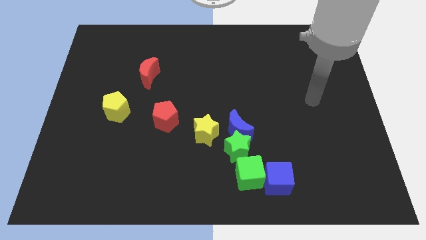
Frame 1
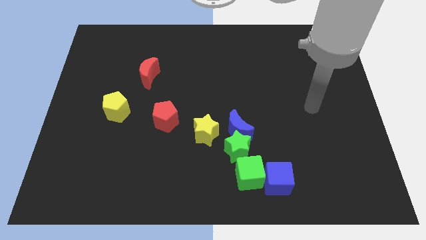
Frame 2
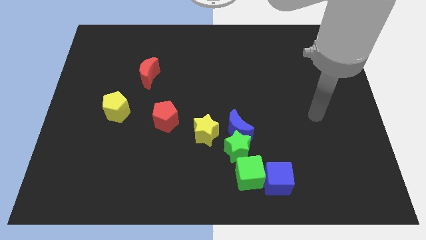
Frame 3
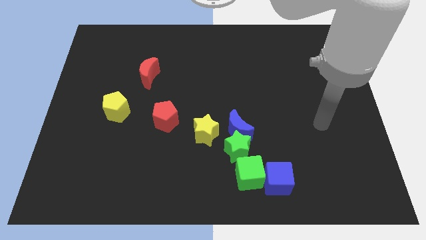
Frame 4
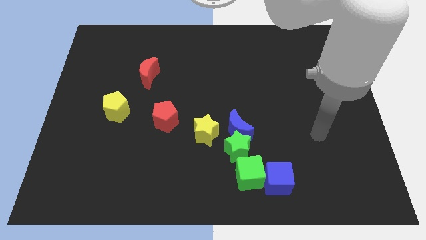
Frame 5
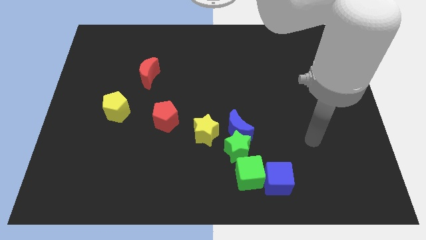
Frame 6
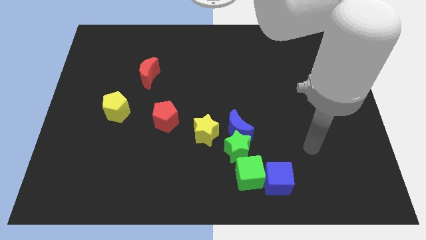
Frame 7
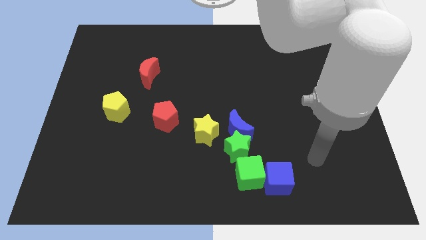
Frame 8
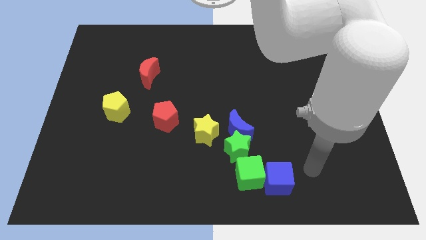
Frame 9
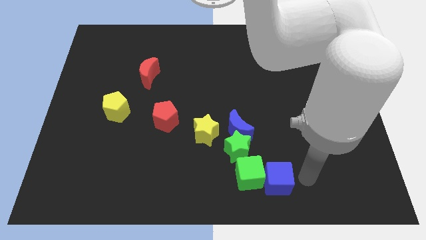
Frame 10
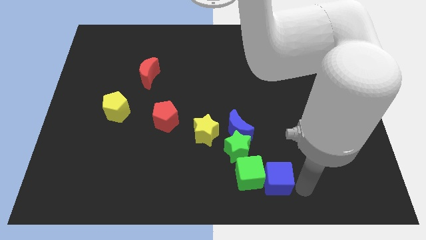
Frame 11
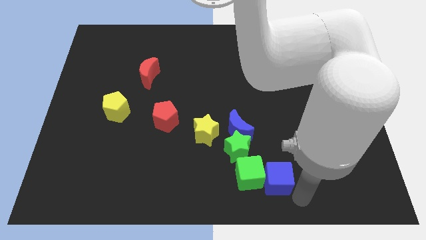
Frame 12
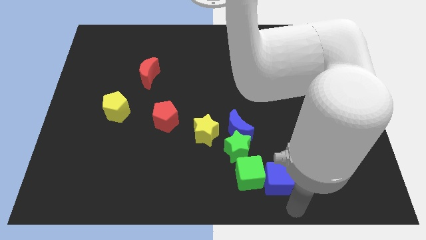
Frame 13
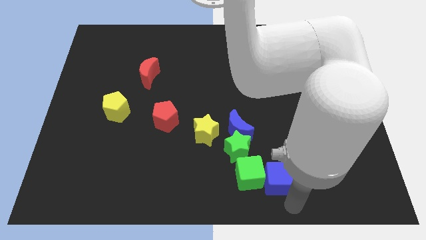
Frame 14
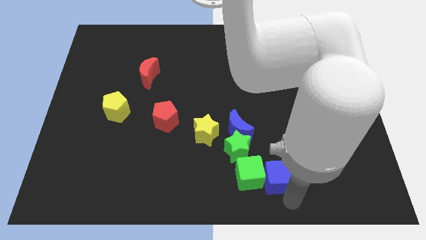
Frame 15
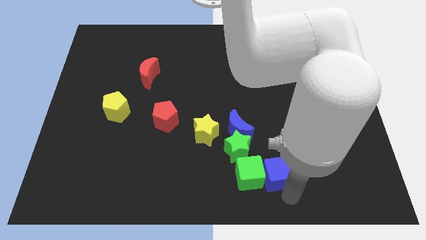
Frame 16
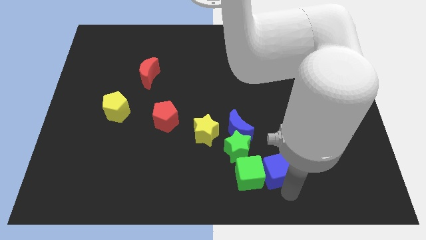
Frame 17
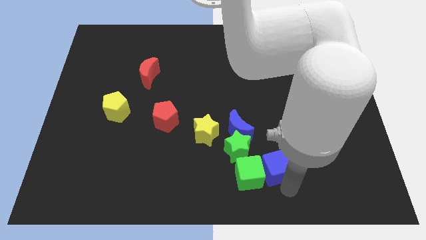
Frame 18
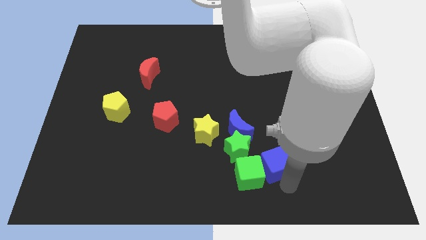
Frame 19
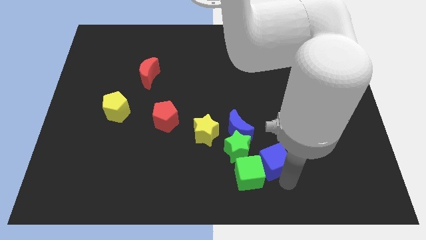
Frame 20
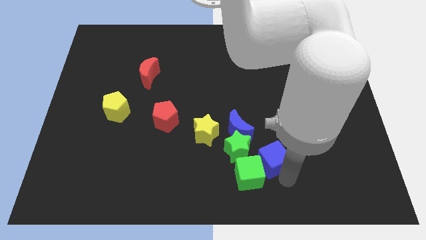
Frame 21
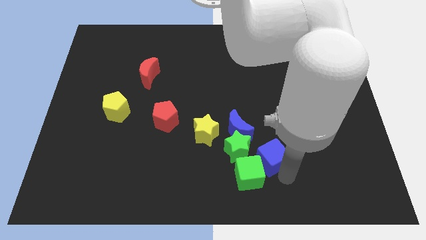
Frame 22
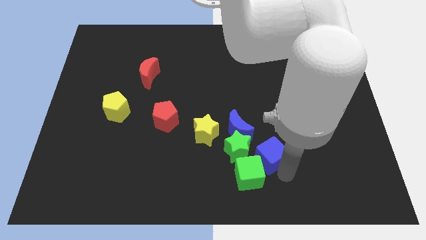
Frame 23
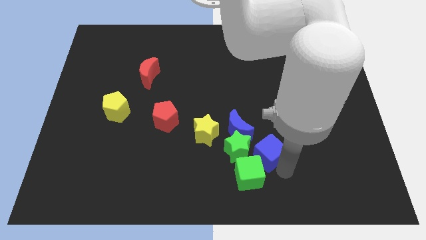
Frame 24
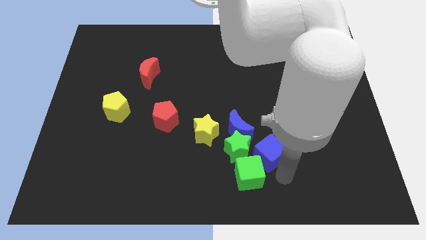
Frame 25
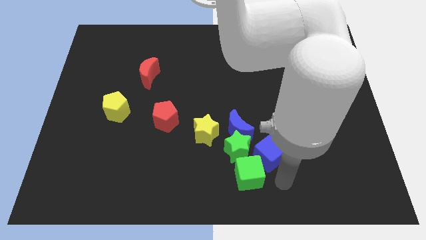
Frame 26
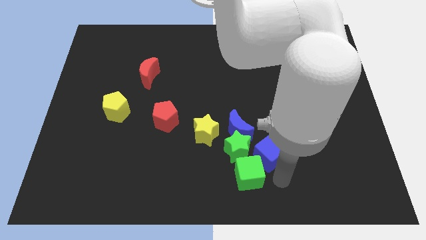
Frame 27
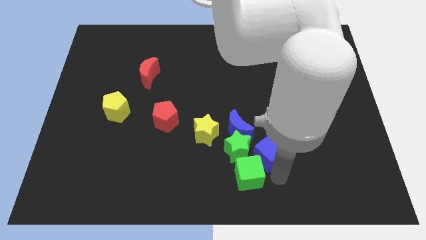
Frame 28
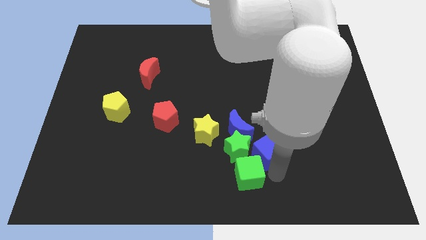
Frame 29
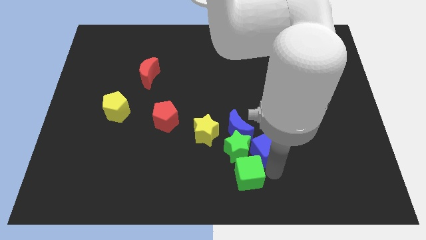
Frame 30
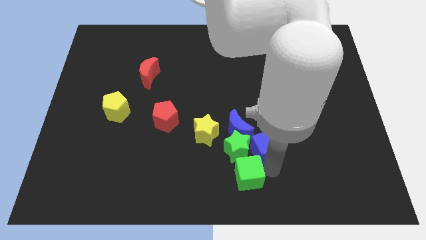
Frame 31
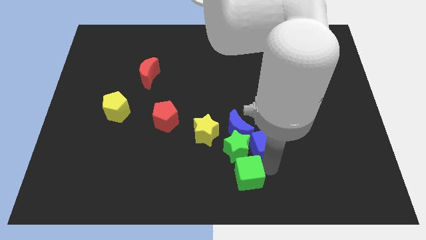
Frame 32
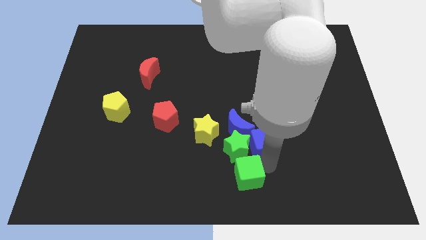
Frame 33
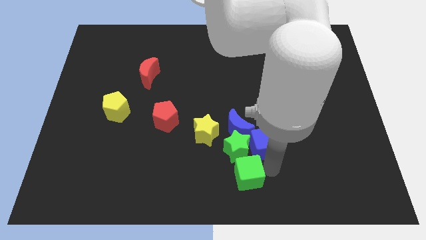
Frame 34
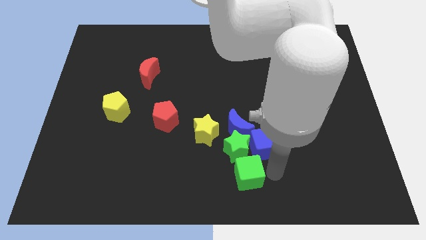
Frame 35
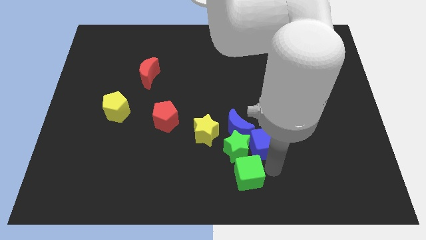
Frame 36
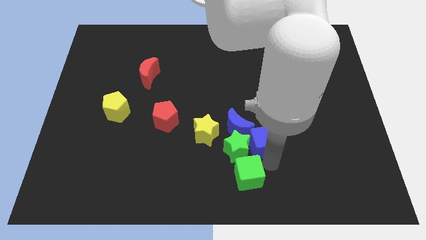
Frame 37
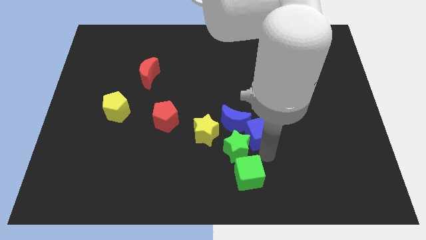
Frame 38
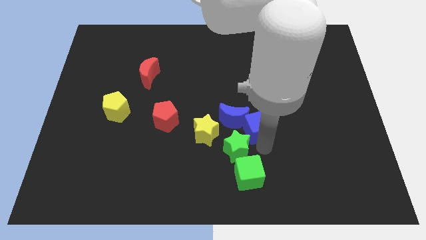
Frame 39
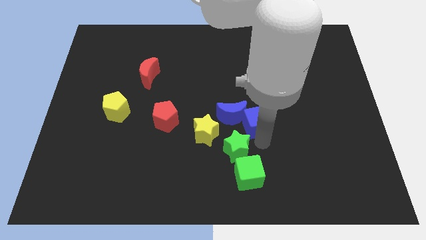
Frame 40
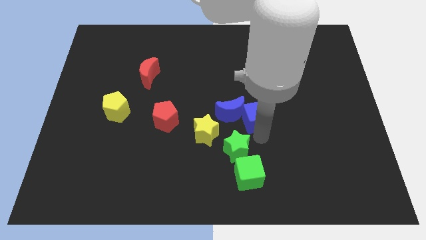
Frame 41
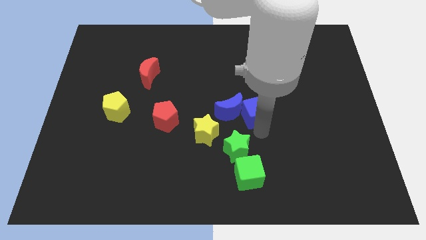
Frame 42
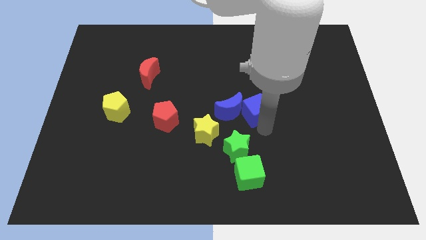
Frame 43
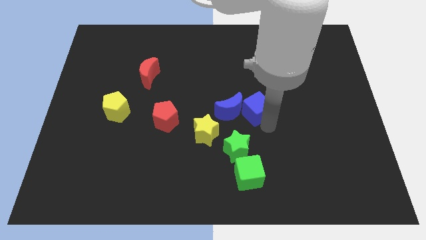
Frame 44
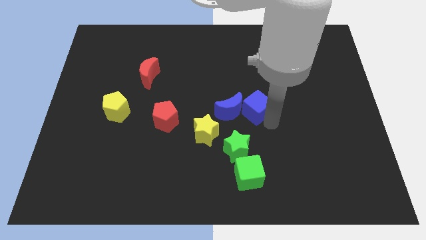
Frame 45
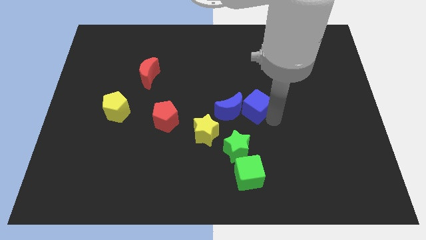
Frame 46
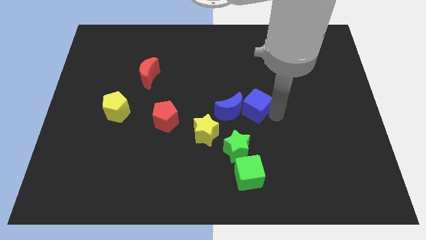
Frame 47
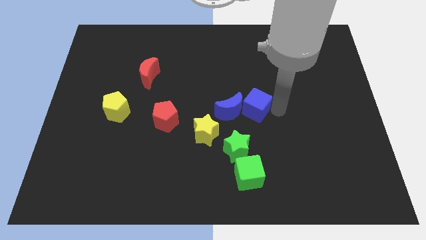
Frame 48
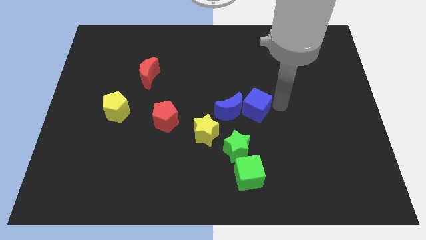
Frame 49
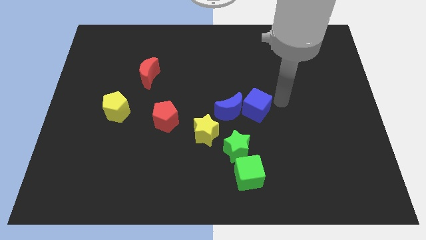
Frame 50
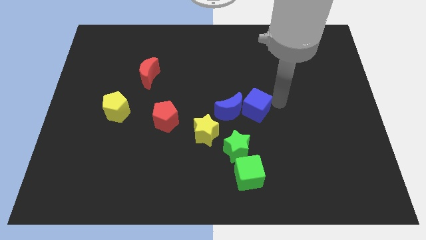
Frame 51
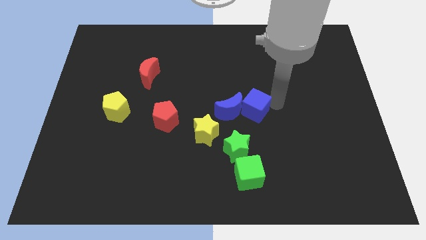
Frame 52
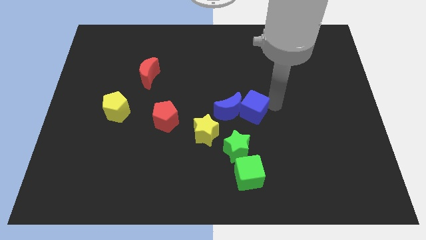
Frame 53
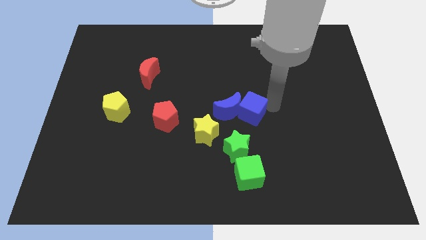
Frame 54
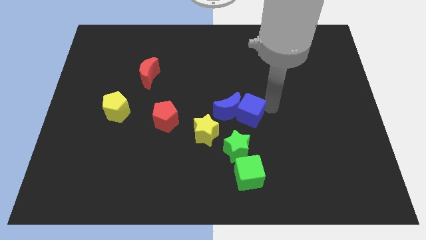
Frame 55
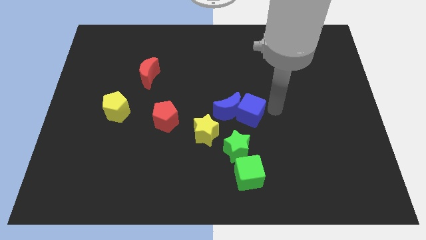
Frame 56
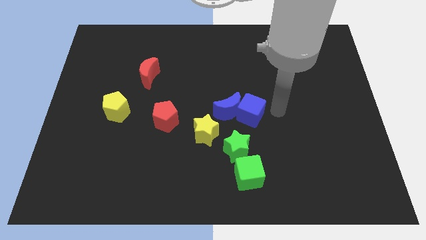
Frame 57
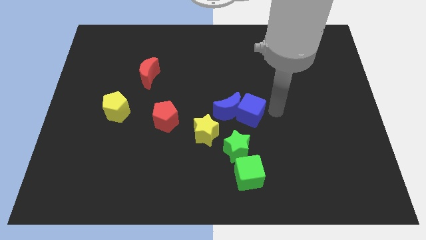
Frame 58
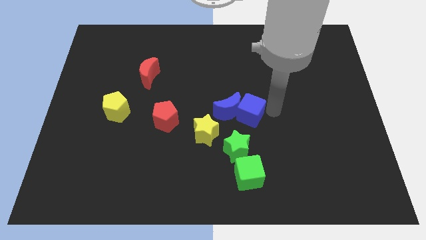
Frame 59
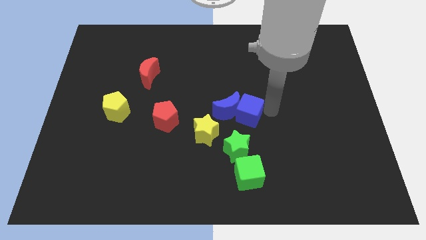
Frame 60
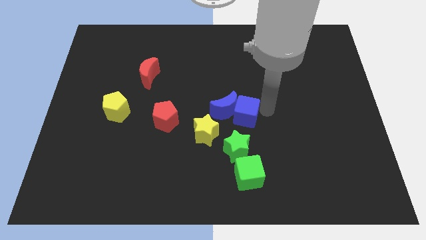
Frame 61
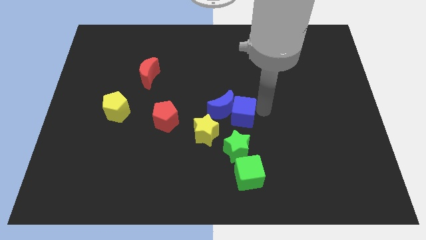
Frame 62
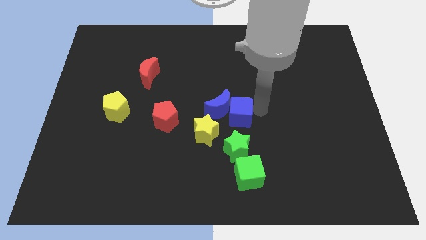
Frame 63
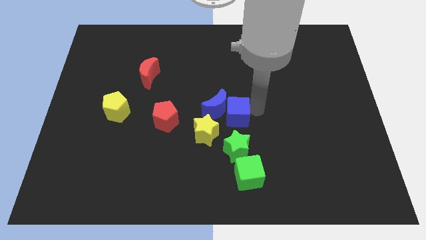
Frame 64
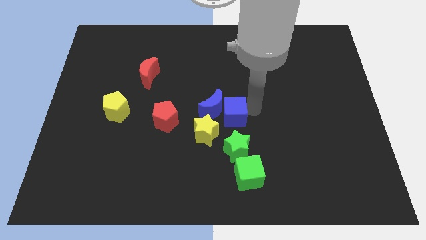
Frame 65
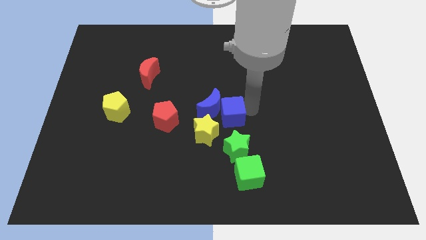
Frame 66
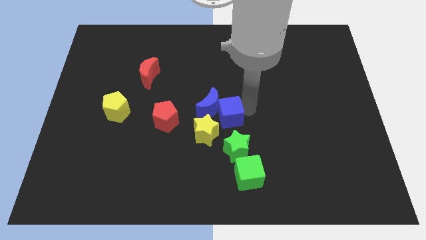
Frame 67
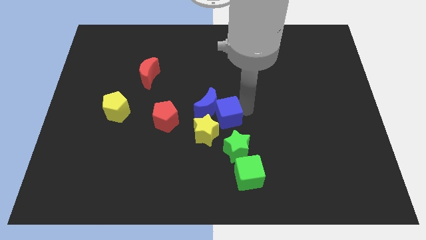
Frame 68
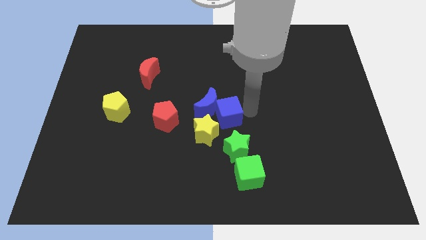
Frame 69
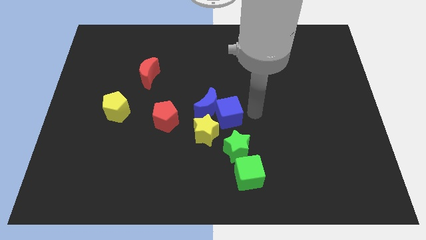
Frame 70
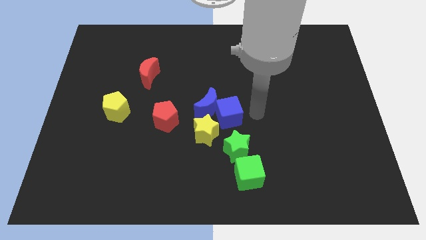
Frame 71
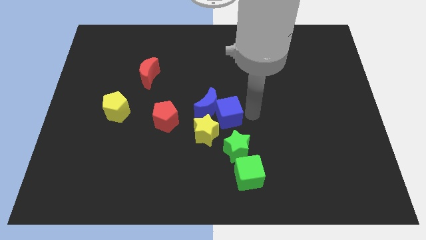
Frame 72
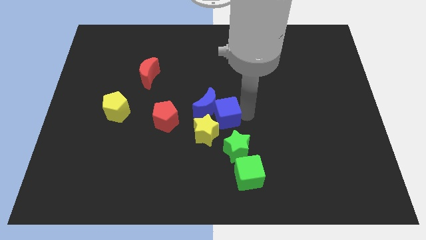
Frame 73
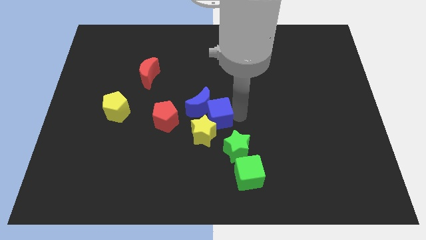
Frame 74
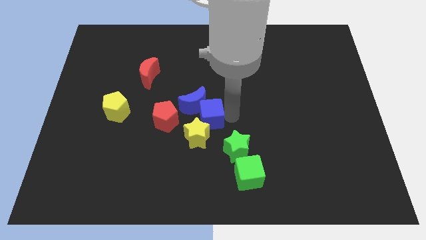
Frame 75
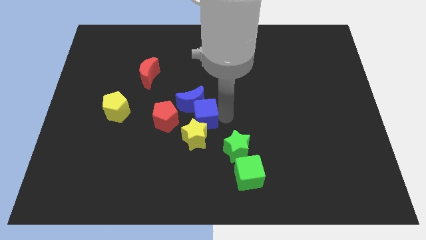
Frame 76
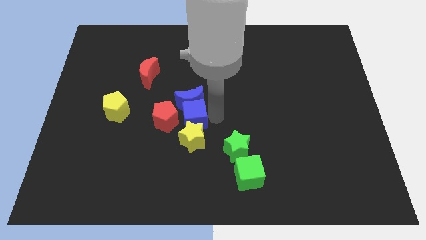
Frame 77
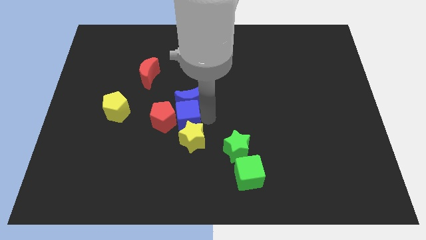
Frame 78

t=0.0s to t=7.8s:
put the blue cube to the red pentagon
